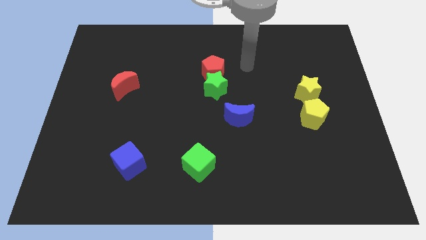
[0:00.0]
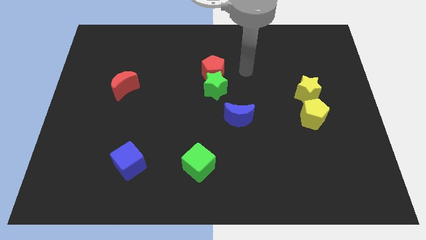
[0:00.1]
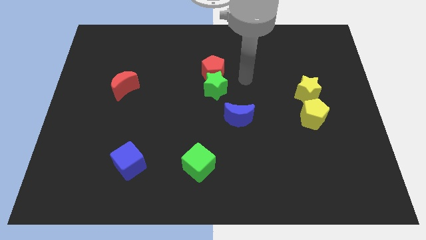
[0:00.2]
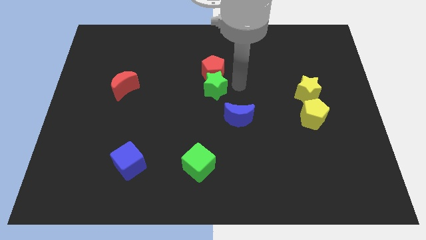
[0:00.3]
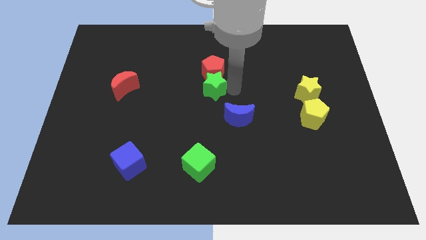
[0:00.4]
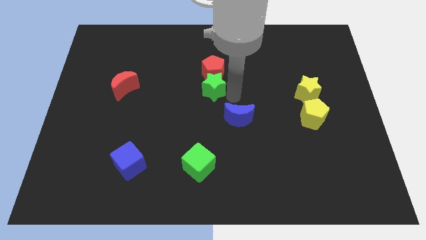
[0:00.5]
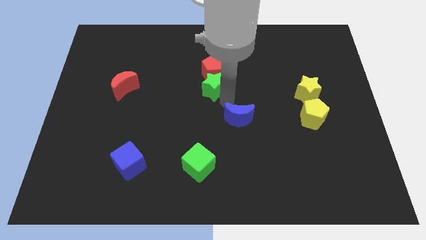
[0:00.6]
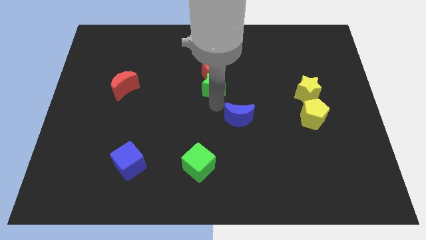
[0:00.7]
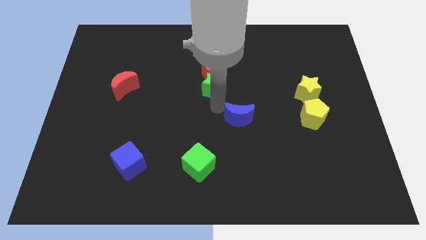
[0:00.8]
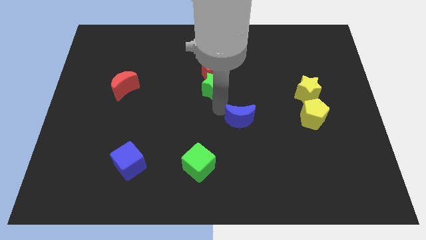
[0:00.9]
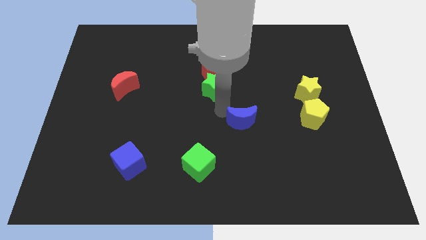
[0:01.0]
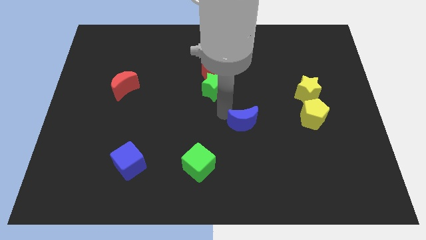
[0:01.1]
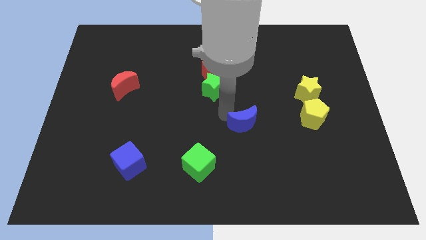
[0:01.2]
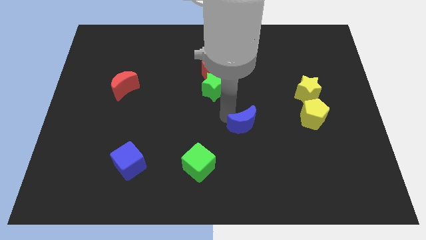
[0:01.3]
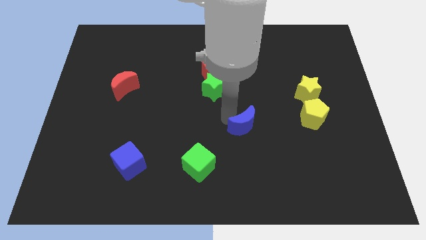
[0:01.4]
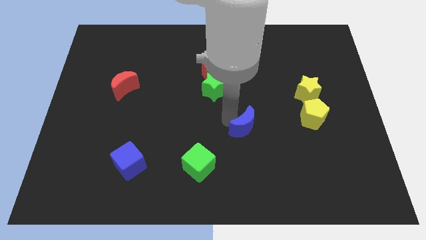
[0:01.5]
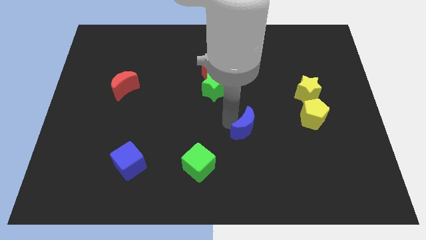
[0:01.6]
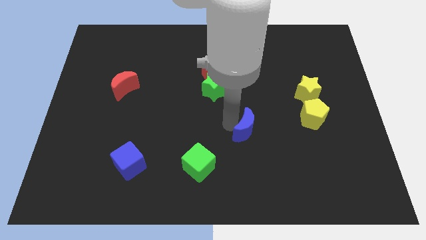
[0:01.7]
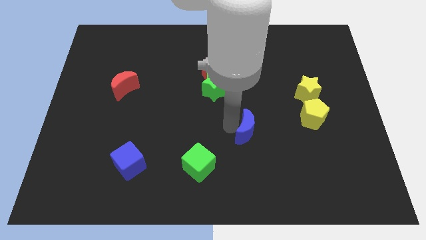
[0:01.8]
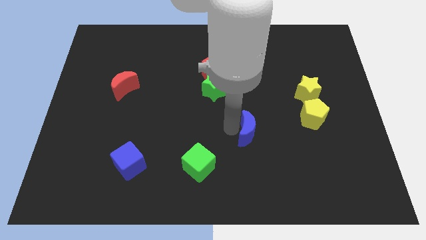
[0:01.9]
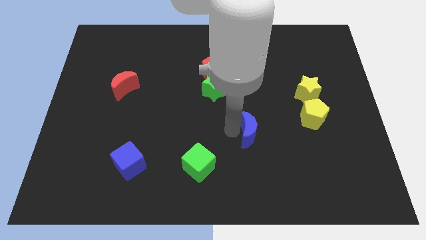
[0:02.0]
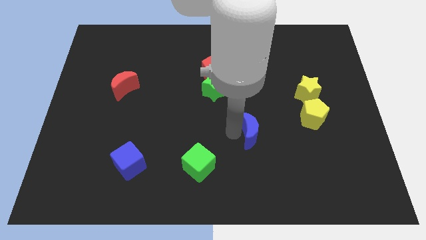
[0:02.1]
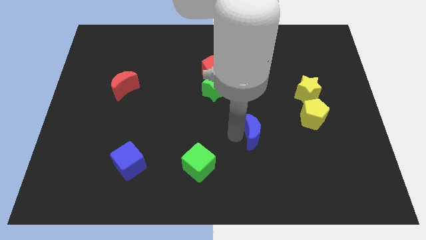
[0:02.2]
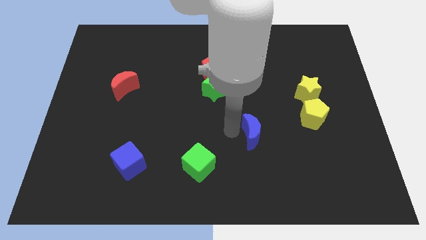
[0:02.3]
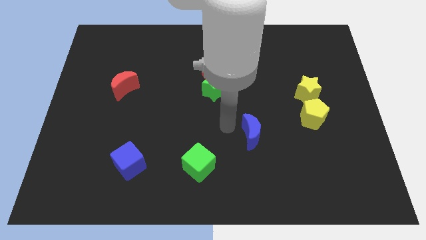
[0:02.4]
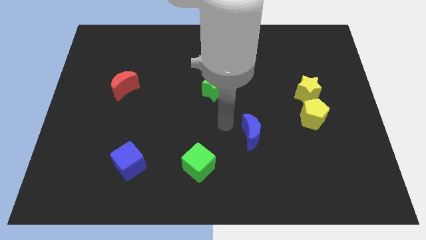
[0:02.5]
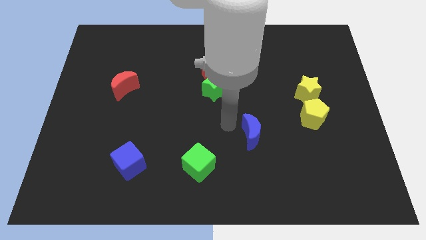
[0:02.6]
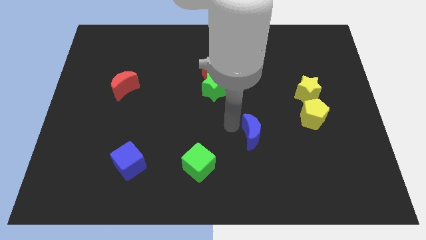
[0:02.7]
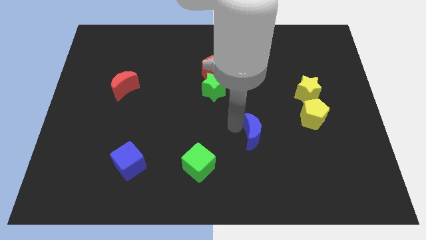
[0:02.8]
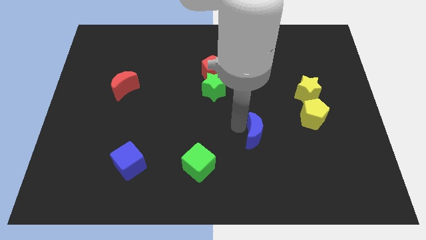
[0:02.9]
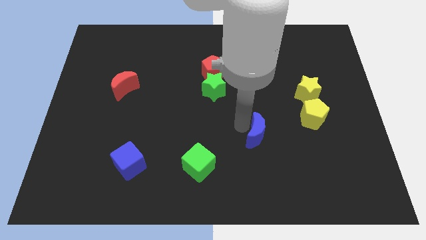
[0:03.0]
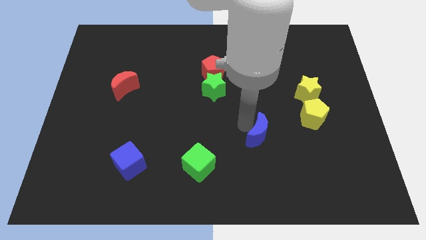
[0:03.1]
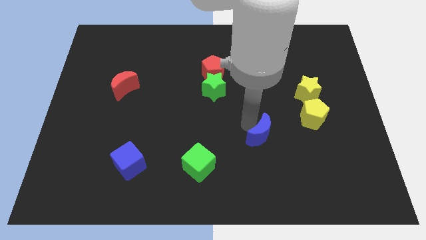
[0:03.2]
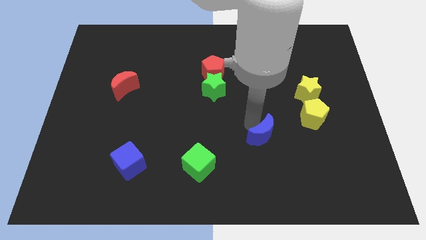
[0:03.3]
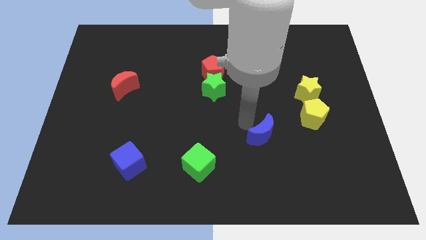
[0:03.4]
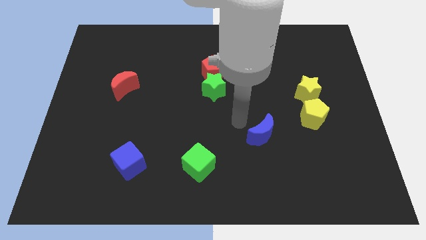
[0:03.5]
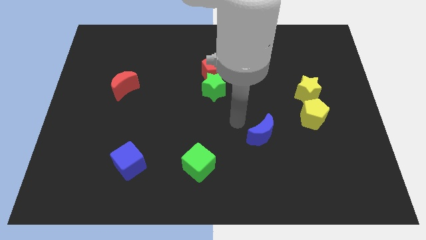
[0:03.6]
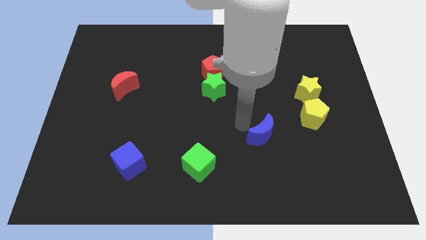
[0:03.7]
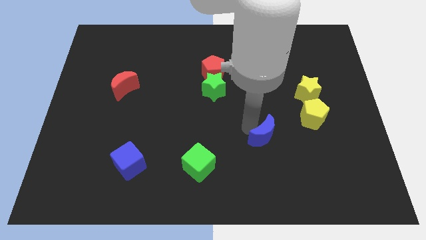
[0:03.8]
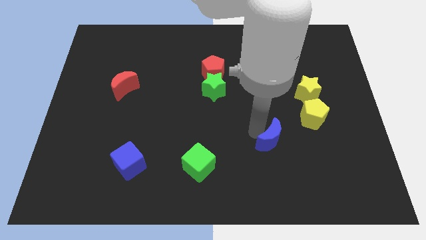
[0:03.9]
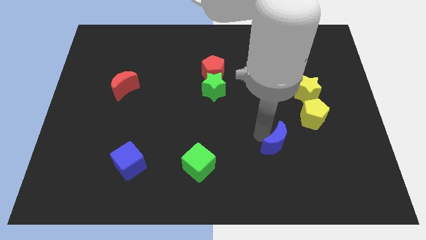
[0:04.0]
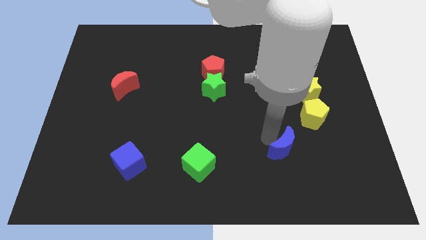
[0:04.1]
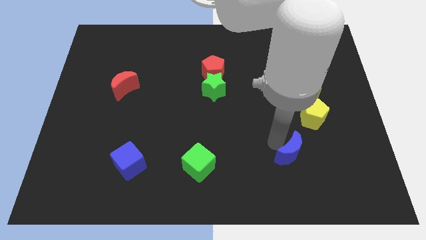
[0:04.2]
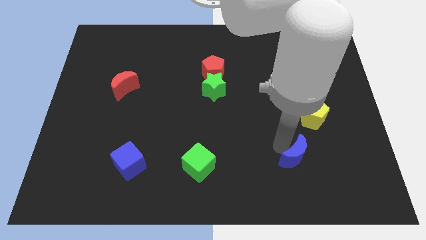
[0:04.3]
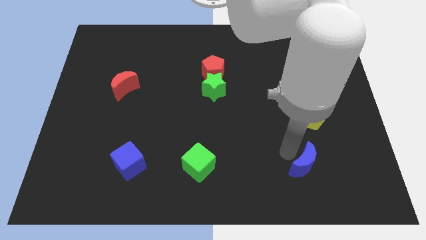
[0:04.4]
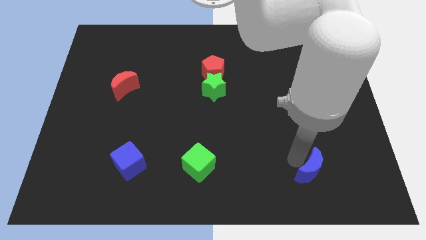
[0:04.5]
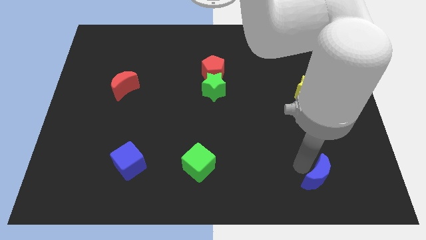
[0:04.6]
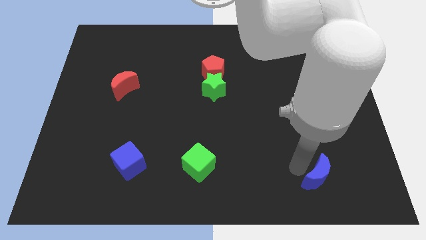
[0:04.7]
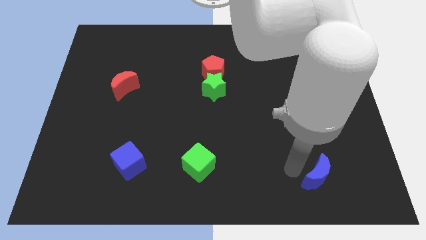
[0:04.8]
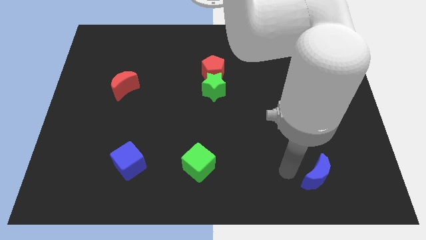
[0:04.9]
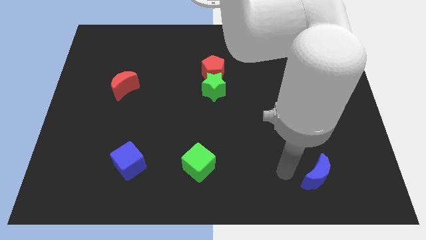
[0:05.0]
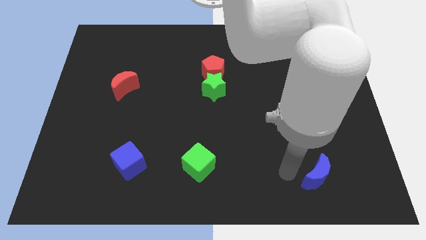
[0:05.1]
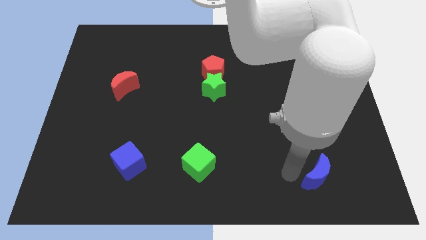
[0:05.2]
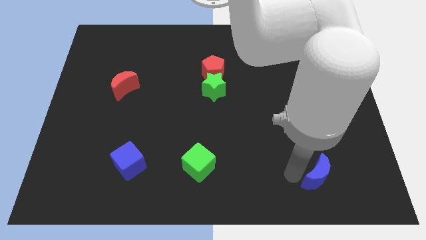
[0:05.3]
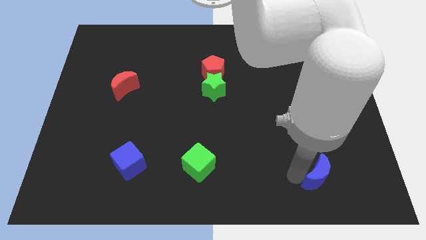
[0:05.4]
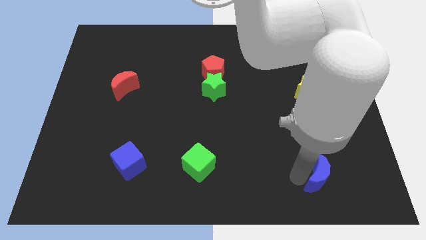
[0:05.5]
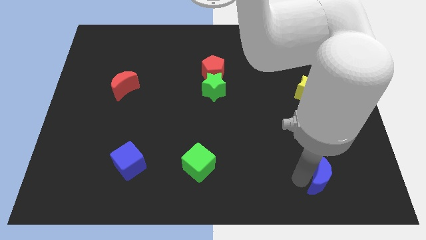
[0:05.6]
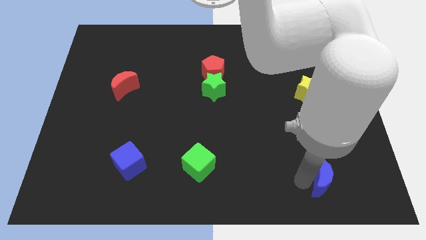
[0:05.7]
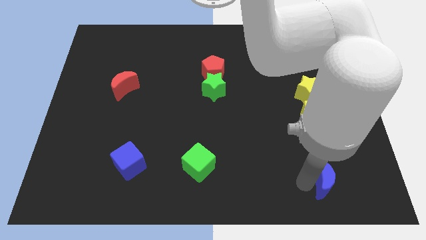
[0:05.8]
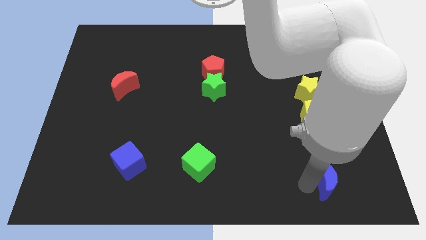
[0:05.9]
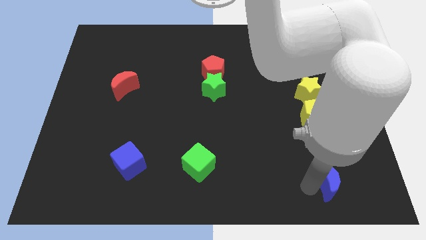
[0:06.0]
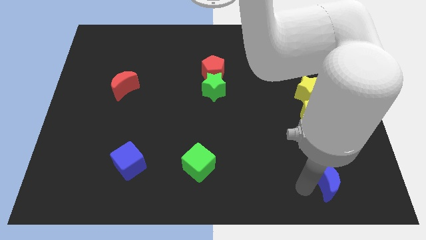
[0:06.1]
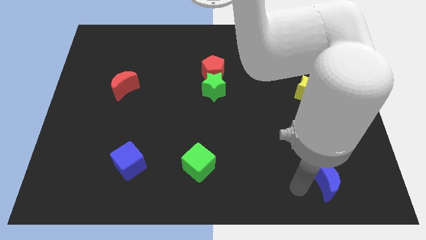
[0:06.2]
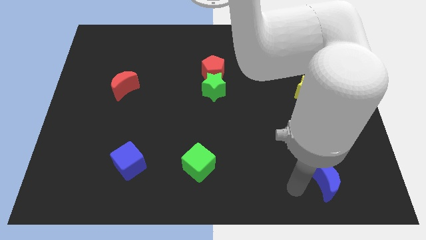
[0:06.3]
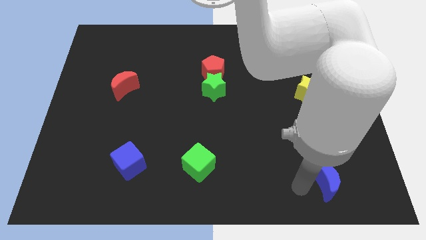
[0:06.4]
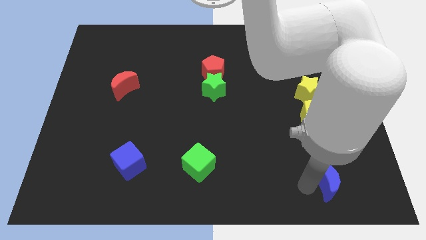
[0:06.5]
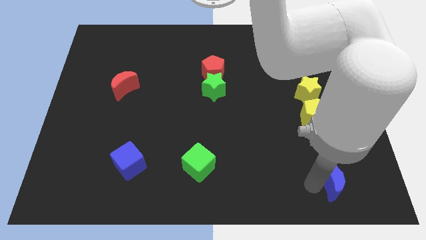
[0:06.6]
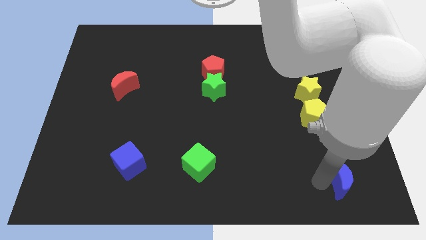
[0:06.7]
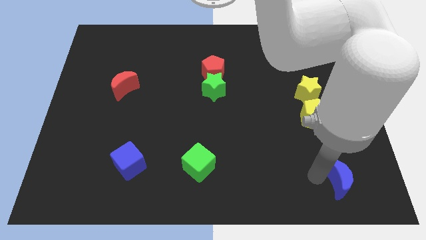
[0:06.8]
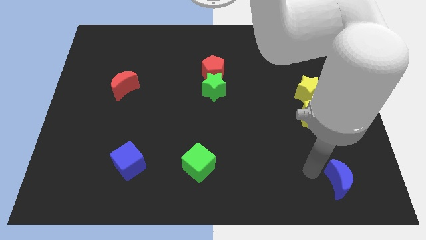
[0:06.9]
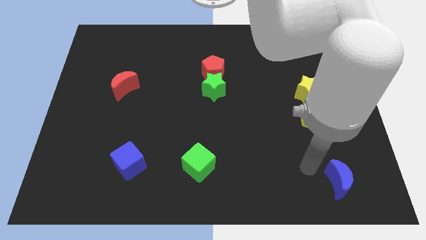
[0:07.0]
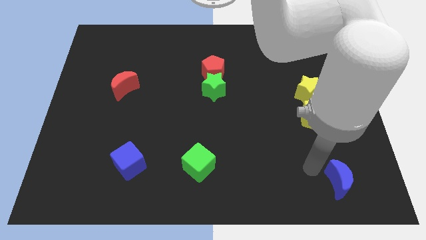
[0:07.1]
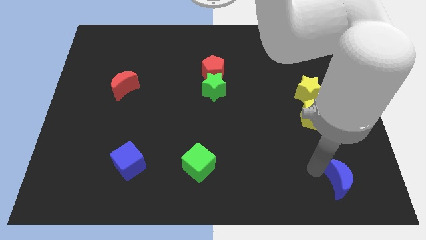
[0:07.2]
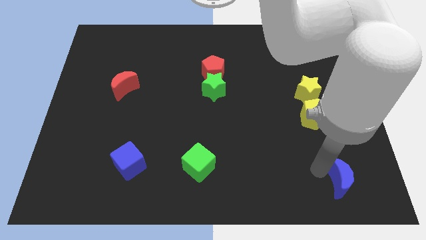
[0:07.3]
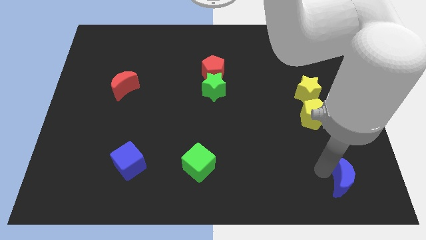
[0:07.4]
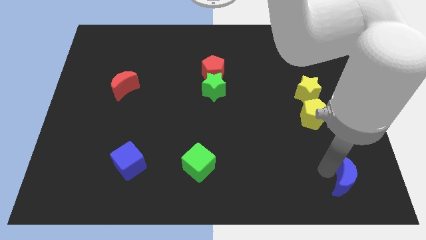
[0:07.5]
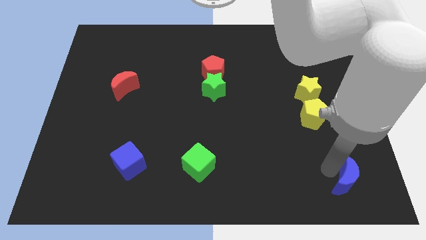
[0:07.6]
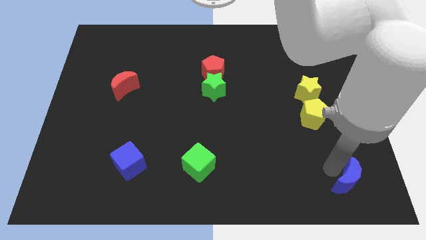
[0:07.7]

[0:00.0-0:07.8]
push the blue moon to the bottom right corner
